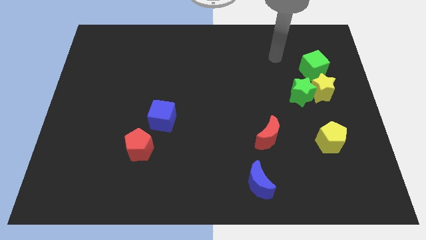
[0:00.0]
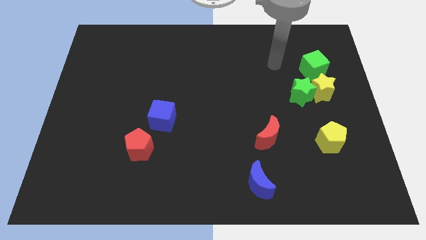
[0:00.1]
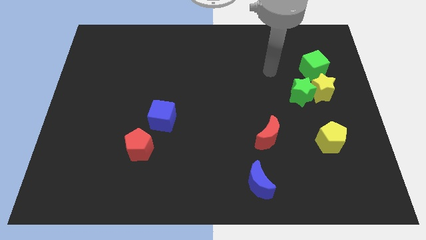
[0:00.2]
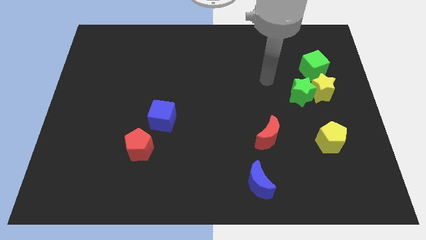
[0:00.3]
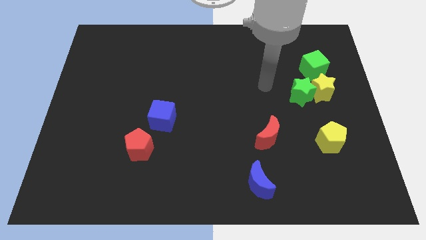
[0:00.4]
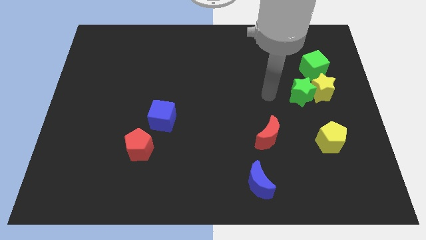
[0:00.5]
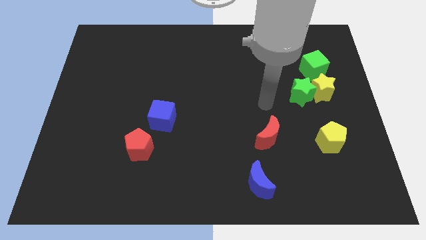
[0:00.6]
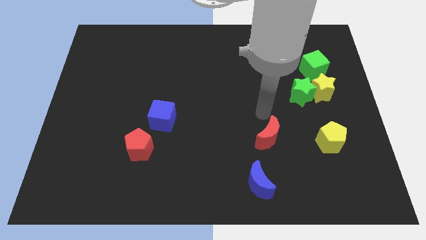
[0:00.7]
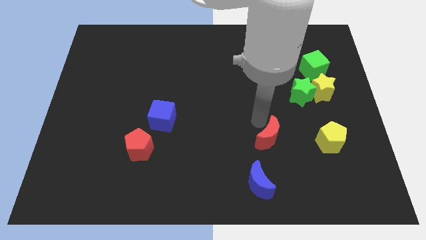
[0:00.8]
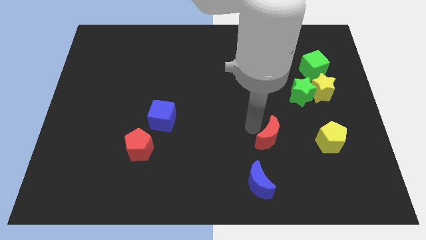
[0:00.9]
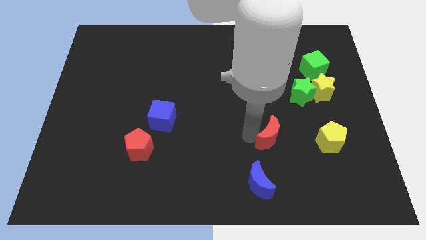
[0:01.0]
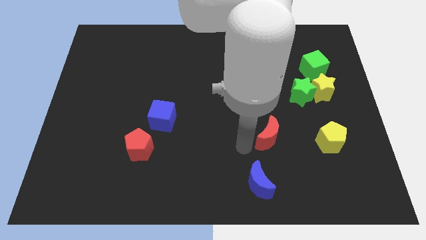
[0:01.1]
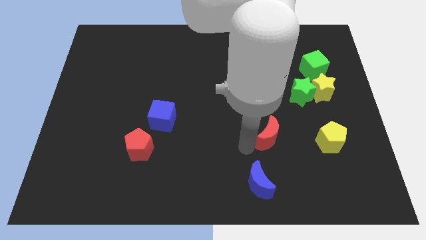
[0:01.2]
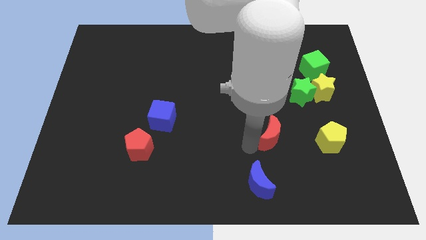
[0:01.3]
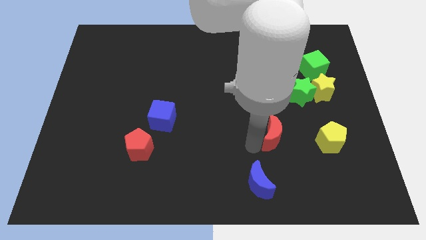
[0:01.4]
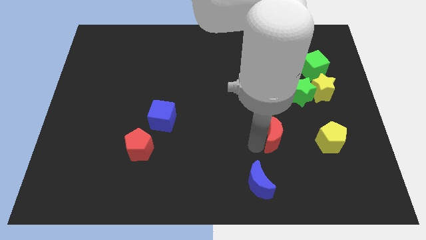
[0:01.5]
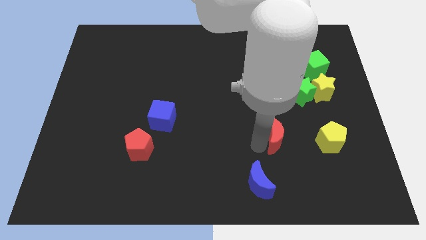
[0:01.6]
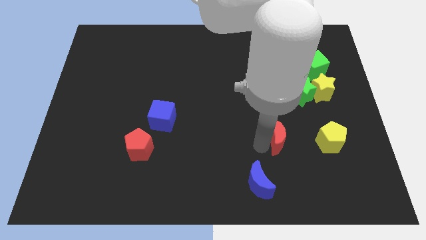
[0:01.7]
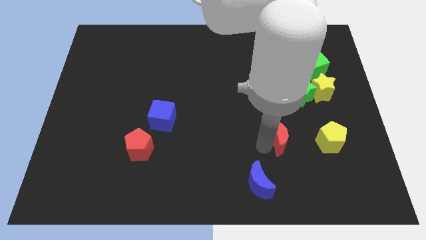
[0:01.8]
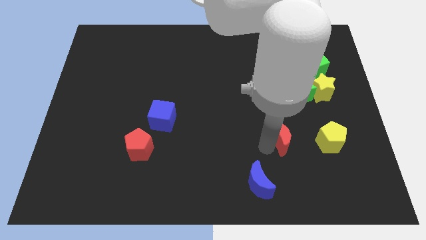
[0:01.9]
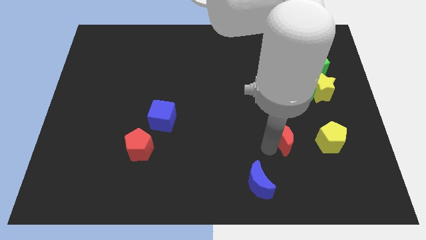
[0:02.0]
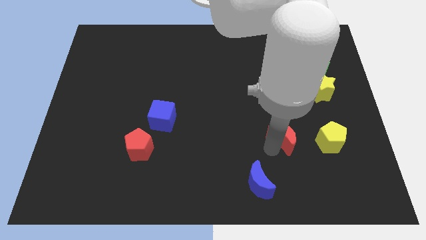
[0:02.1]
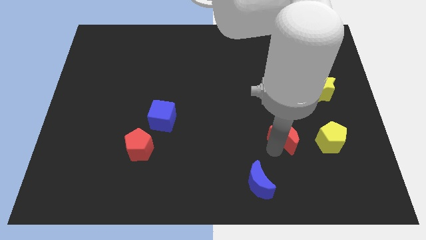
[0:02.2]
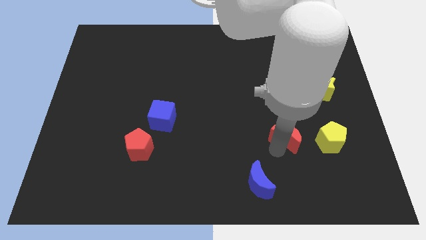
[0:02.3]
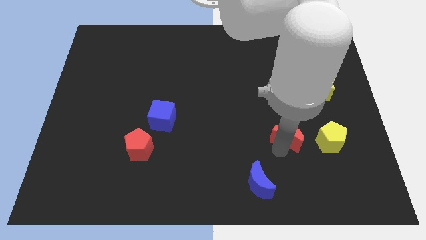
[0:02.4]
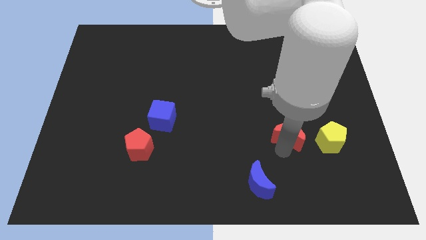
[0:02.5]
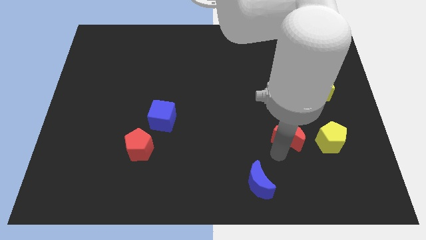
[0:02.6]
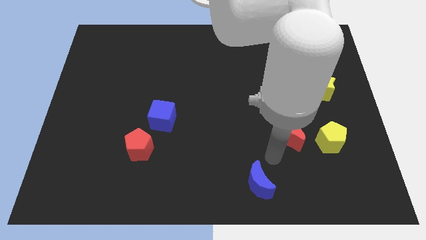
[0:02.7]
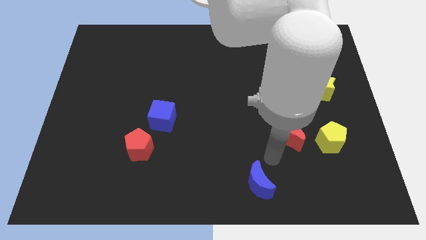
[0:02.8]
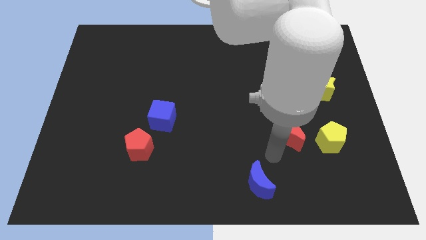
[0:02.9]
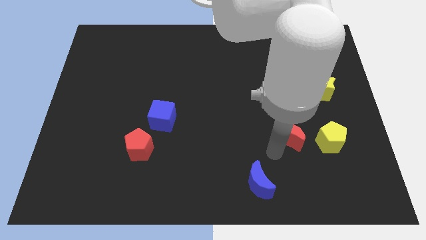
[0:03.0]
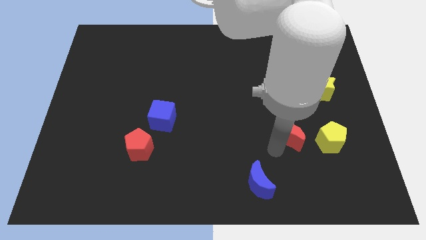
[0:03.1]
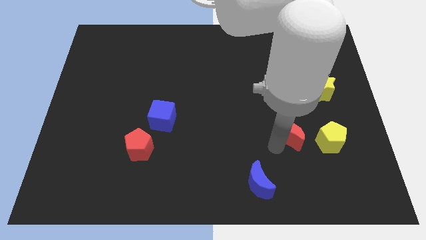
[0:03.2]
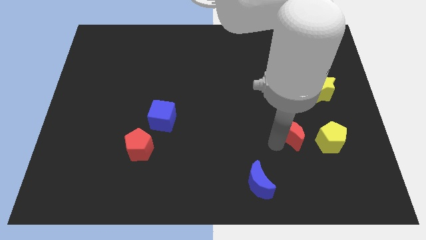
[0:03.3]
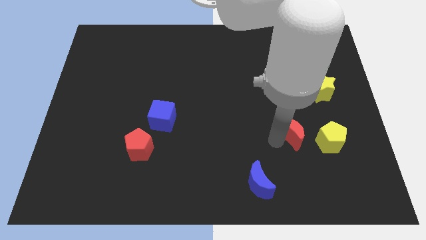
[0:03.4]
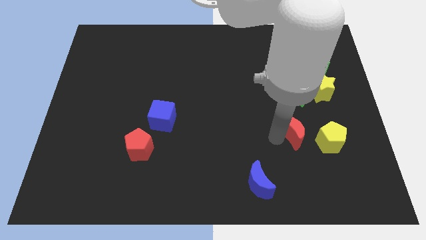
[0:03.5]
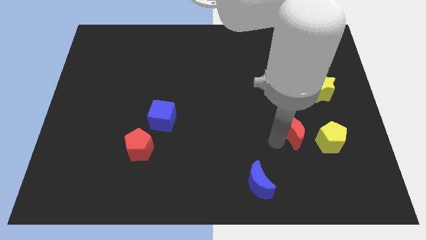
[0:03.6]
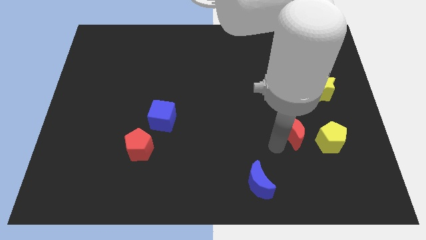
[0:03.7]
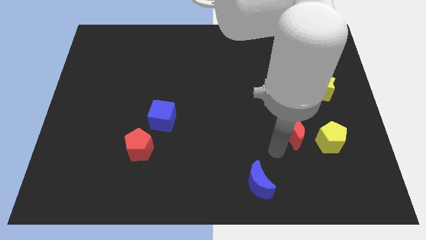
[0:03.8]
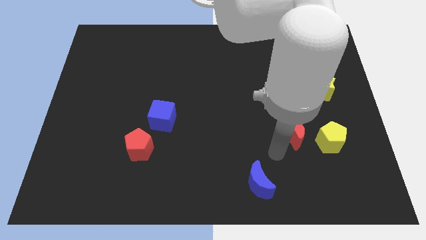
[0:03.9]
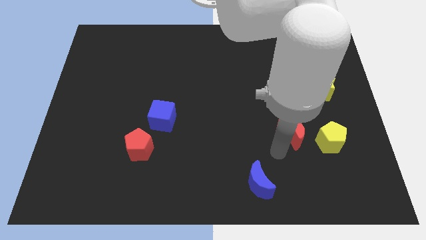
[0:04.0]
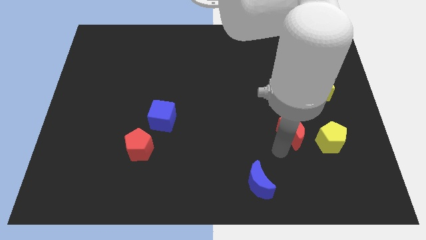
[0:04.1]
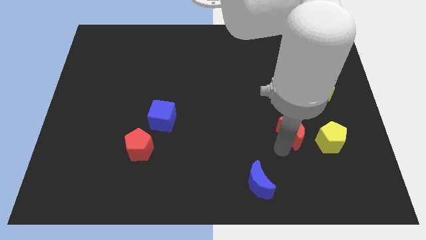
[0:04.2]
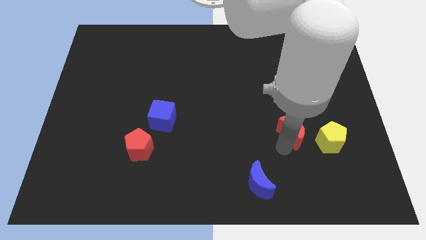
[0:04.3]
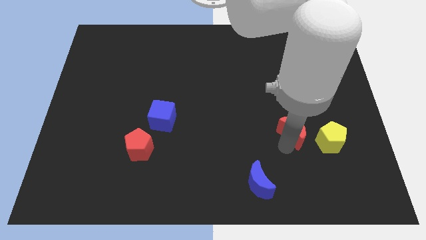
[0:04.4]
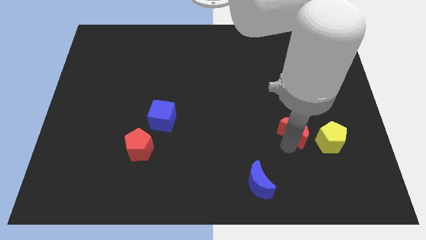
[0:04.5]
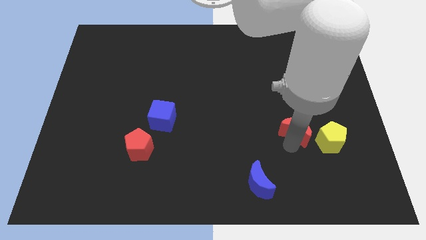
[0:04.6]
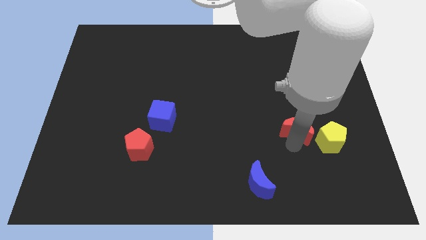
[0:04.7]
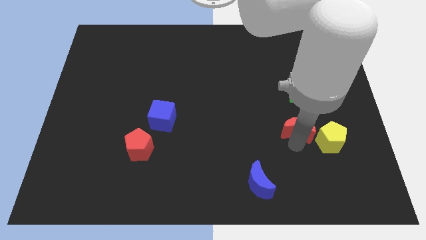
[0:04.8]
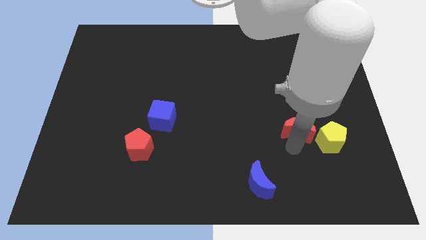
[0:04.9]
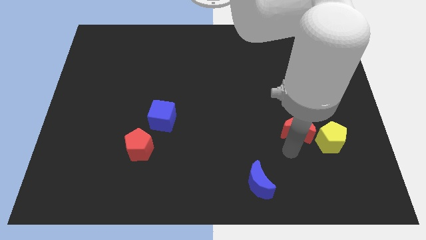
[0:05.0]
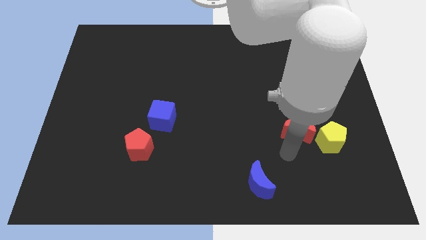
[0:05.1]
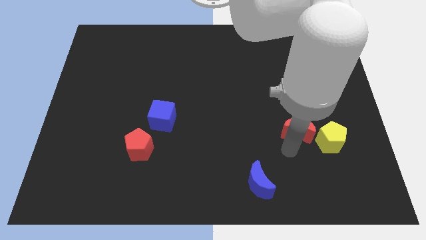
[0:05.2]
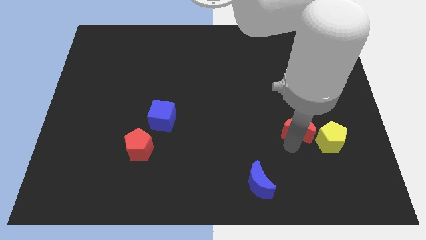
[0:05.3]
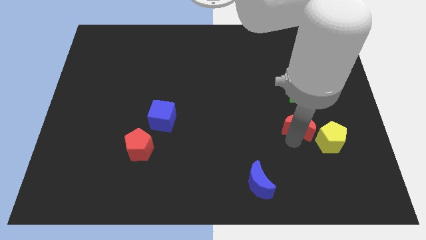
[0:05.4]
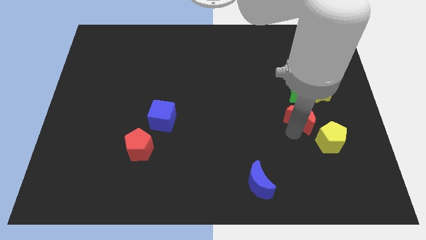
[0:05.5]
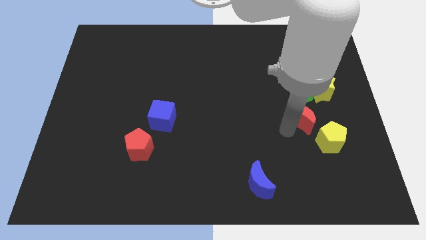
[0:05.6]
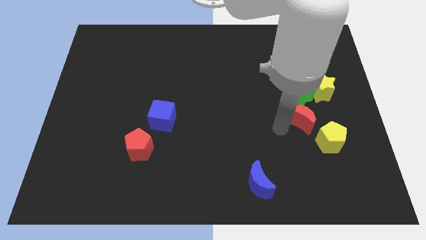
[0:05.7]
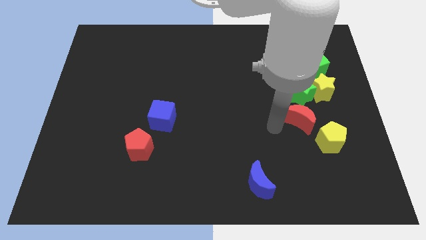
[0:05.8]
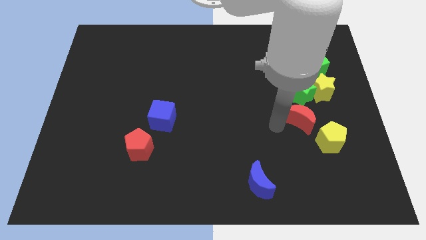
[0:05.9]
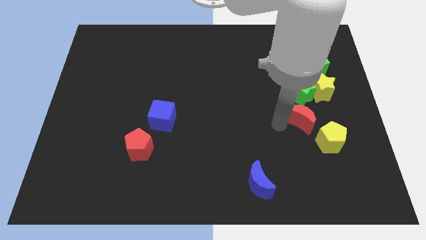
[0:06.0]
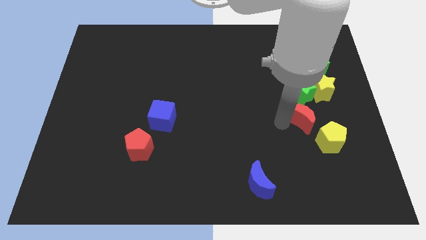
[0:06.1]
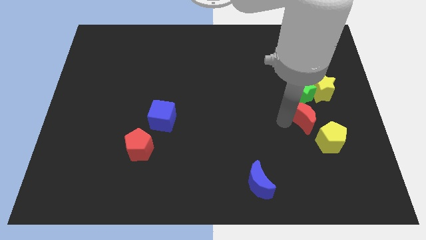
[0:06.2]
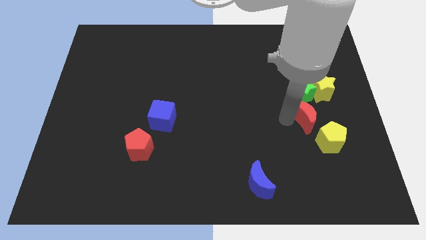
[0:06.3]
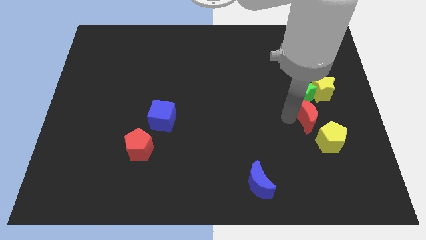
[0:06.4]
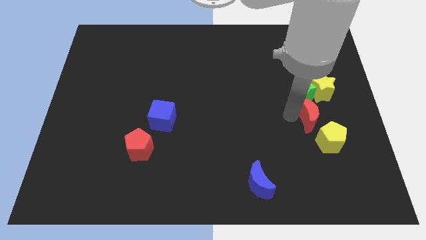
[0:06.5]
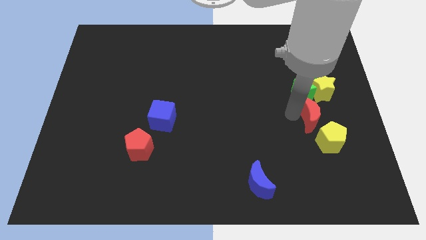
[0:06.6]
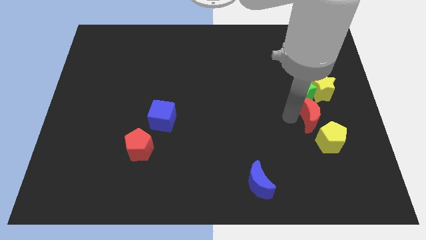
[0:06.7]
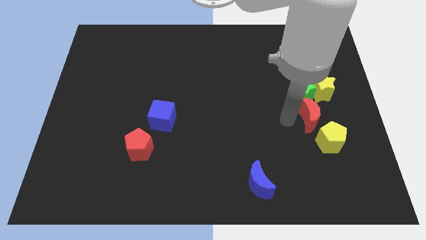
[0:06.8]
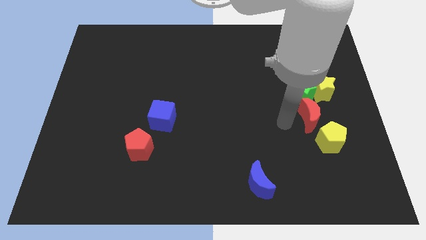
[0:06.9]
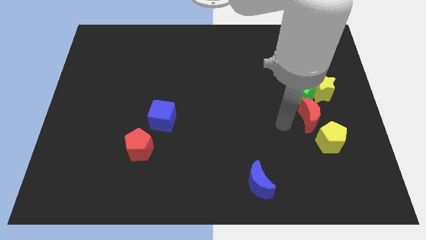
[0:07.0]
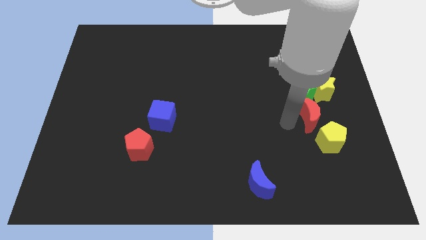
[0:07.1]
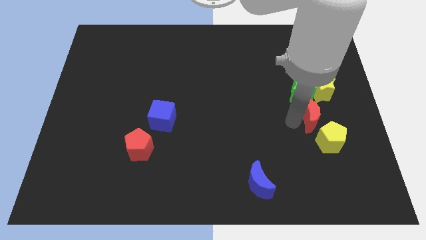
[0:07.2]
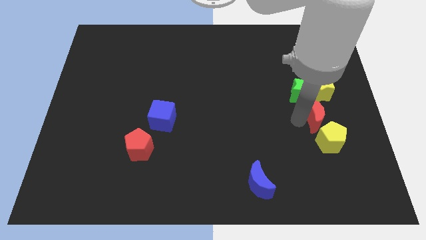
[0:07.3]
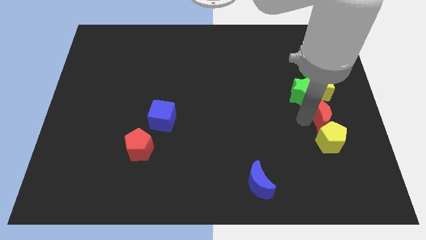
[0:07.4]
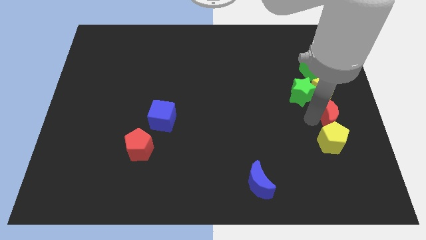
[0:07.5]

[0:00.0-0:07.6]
move the red moon to the right side of the board
